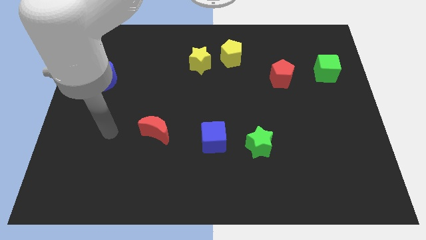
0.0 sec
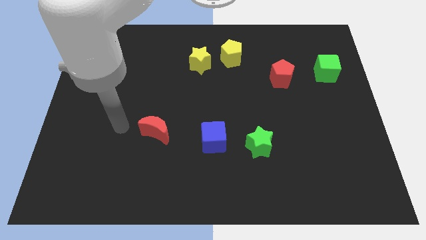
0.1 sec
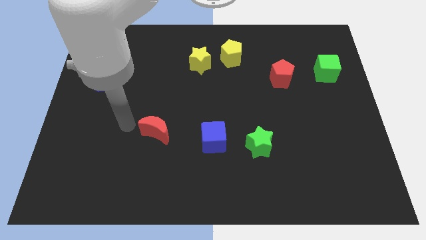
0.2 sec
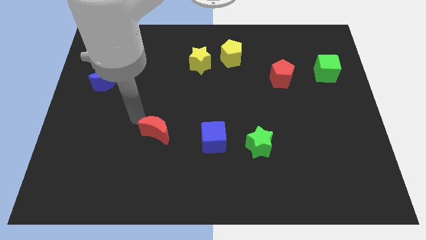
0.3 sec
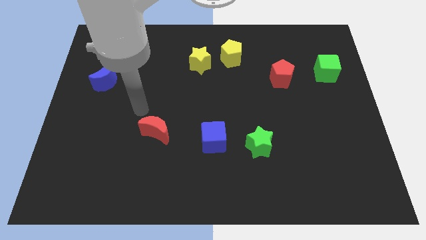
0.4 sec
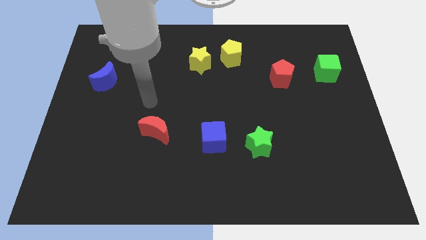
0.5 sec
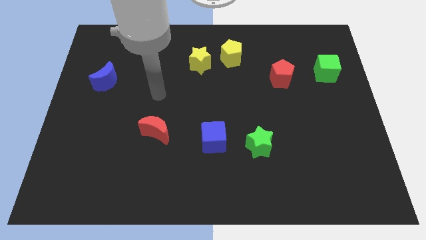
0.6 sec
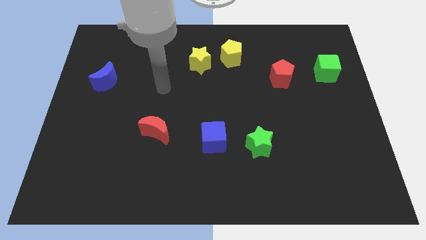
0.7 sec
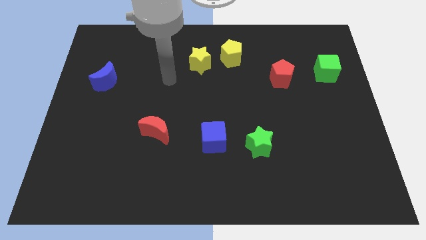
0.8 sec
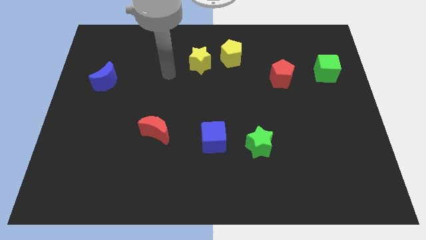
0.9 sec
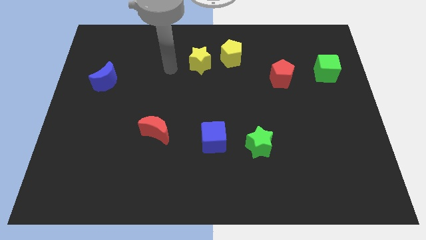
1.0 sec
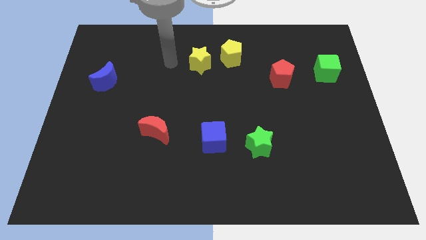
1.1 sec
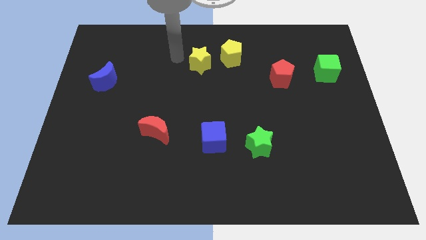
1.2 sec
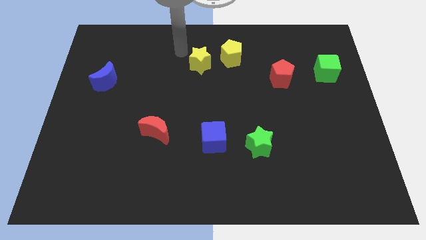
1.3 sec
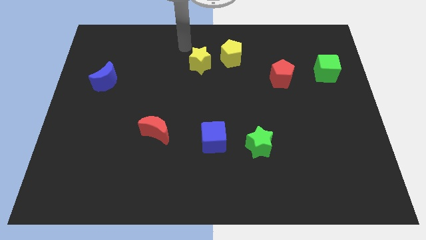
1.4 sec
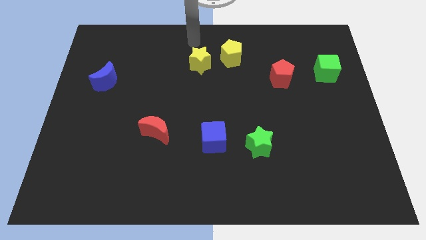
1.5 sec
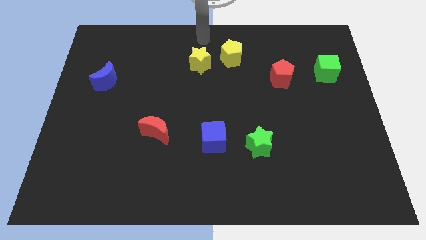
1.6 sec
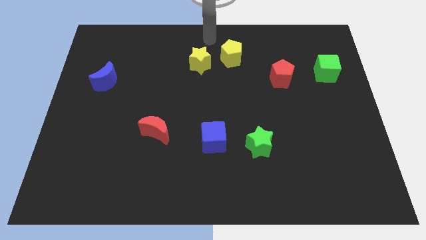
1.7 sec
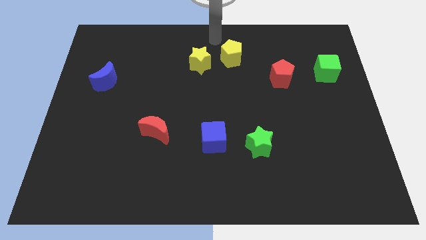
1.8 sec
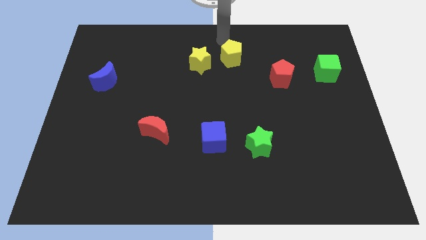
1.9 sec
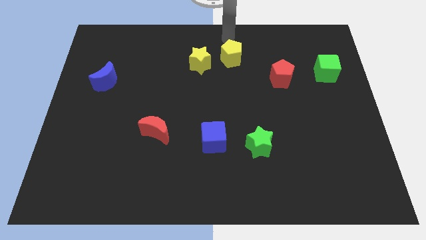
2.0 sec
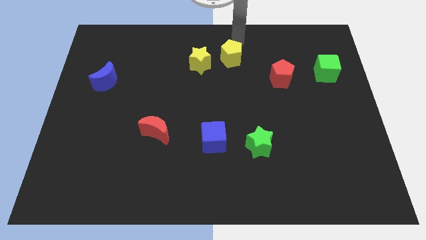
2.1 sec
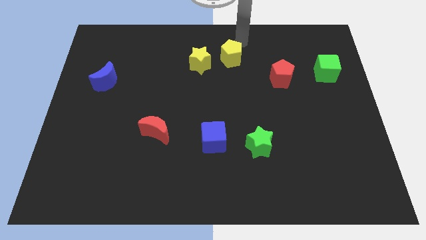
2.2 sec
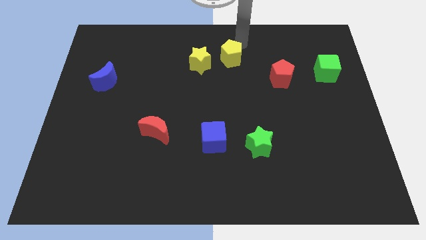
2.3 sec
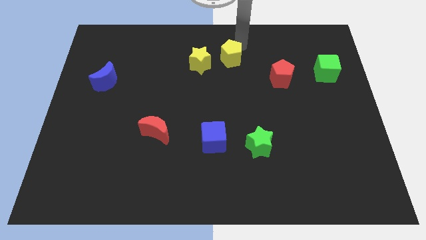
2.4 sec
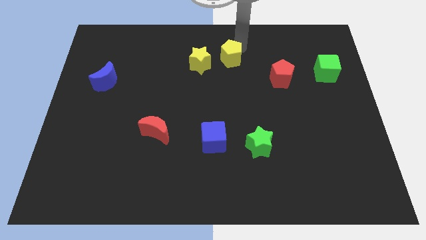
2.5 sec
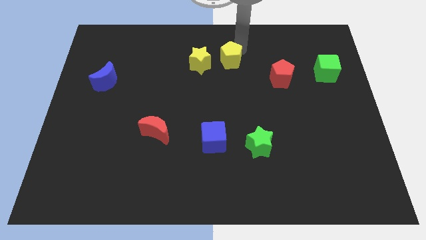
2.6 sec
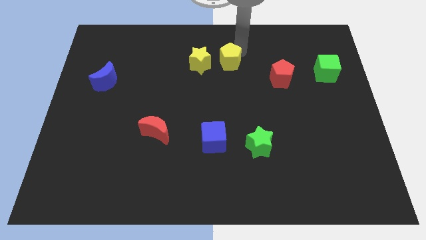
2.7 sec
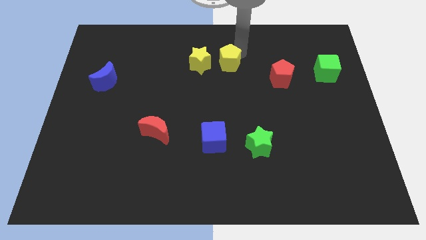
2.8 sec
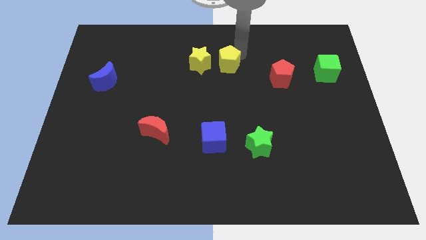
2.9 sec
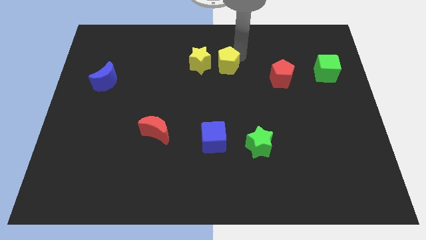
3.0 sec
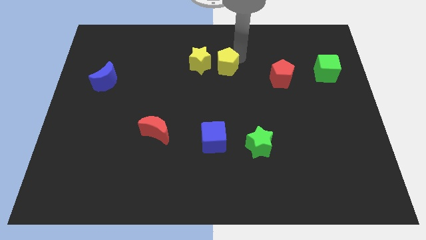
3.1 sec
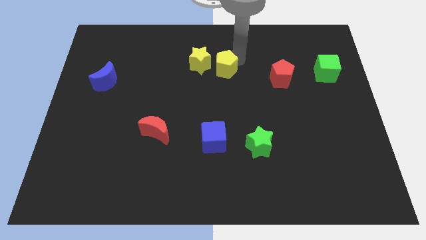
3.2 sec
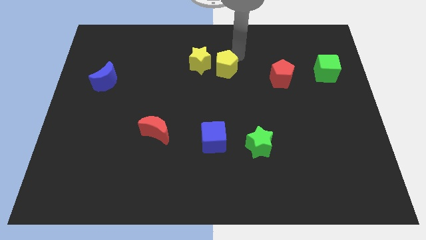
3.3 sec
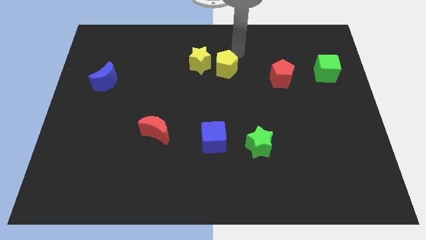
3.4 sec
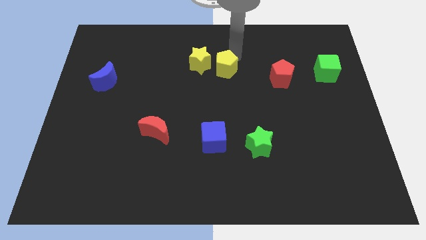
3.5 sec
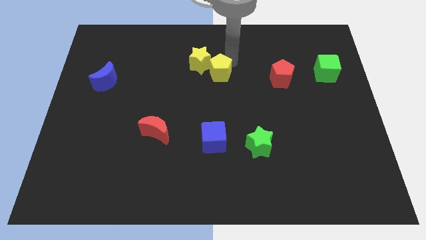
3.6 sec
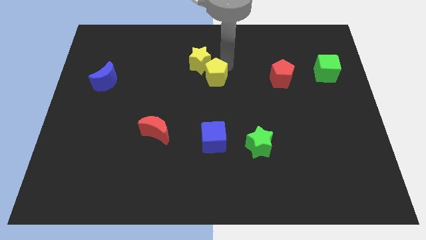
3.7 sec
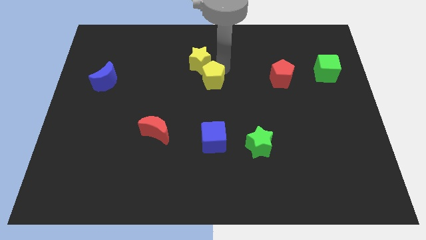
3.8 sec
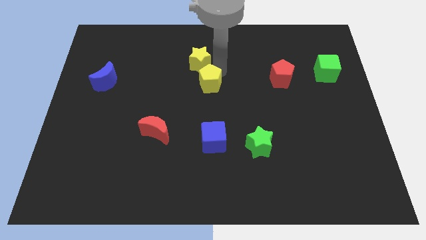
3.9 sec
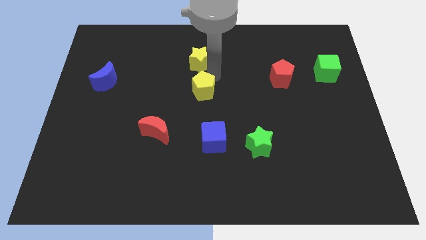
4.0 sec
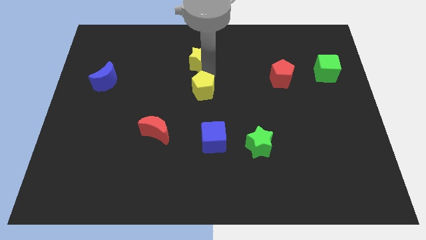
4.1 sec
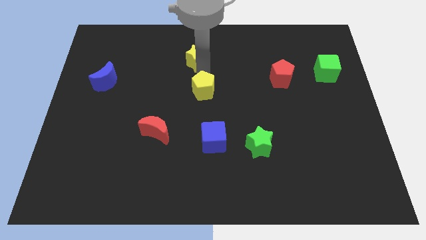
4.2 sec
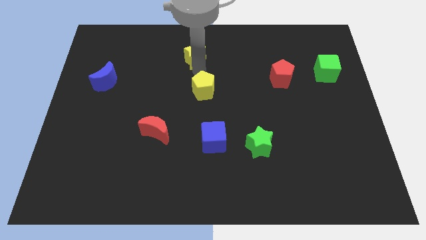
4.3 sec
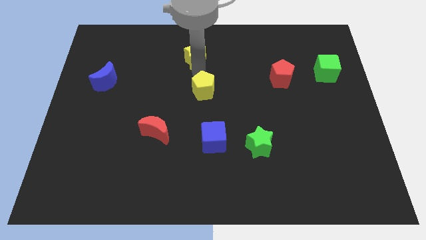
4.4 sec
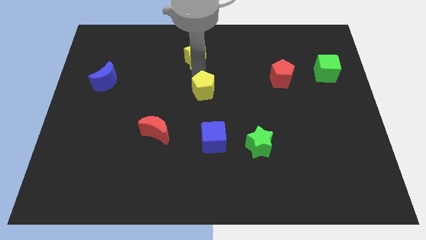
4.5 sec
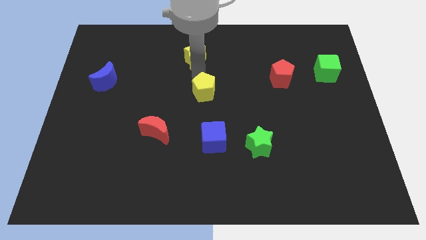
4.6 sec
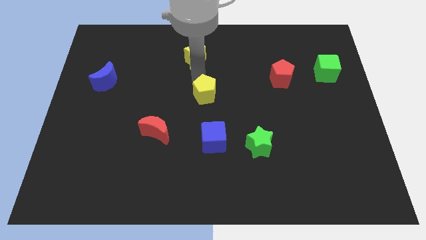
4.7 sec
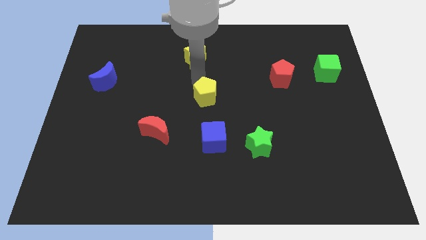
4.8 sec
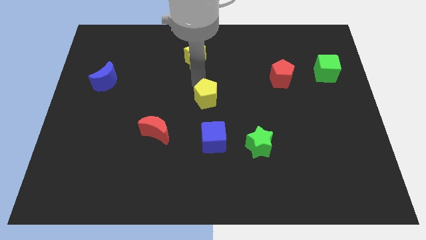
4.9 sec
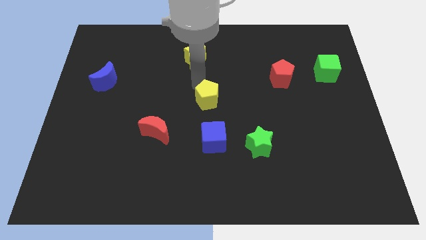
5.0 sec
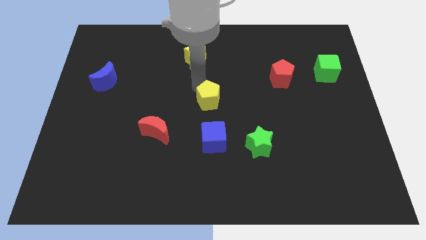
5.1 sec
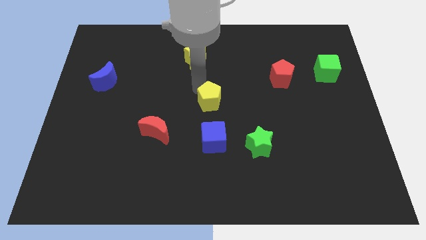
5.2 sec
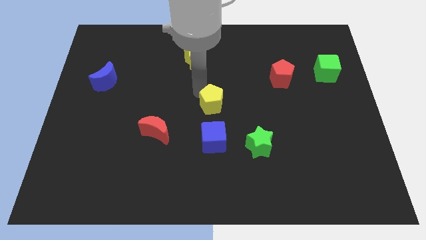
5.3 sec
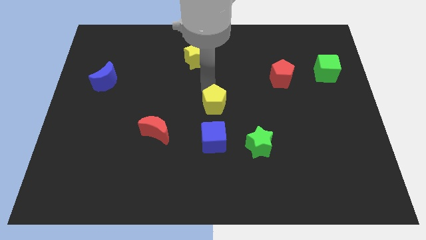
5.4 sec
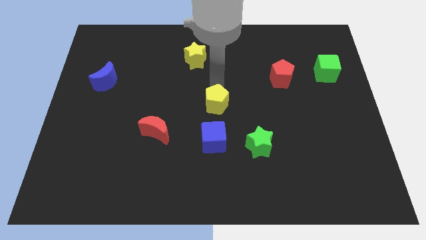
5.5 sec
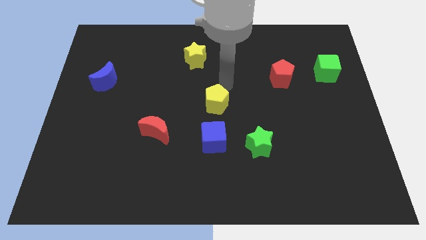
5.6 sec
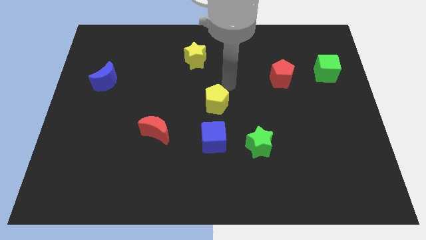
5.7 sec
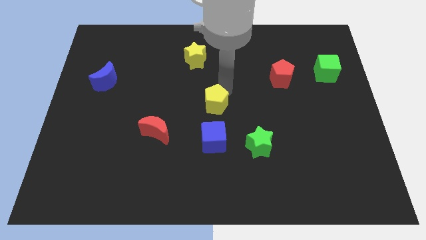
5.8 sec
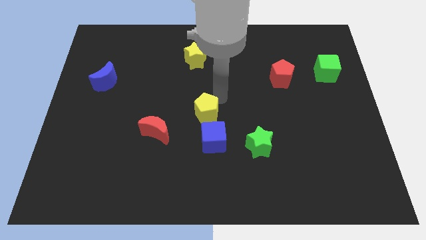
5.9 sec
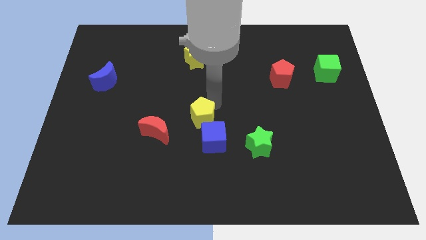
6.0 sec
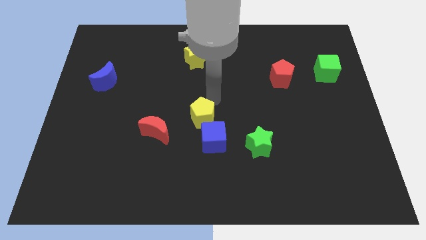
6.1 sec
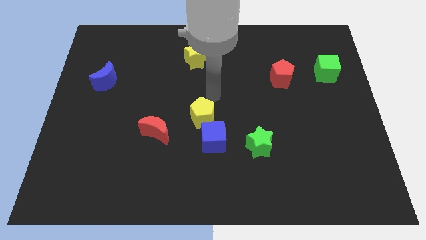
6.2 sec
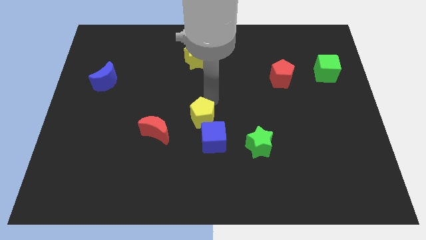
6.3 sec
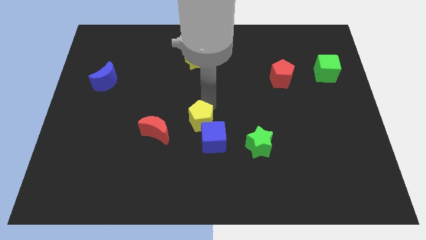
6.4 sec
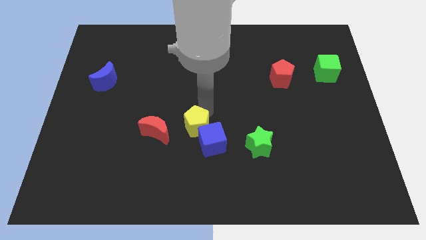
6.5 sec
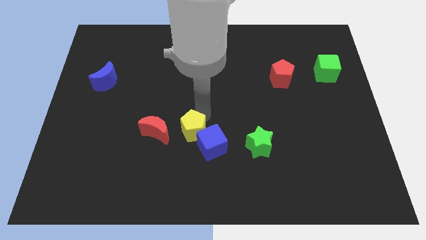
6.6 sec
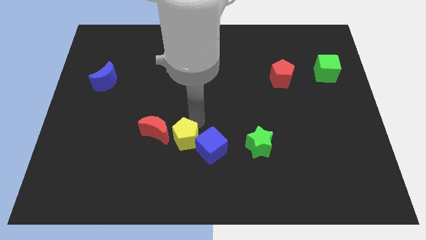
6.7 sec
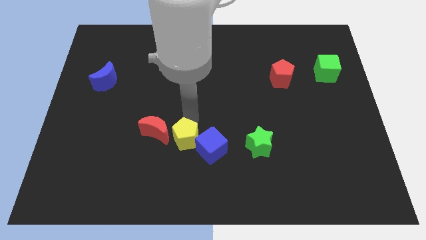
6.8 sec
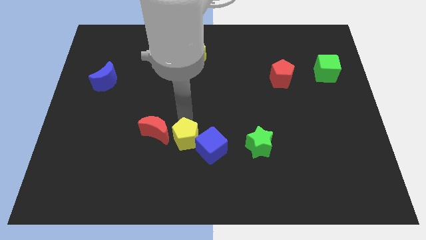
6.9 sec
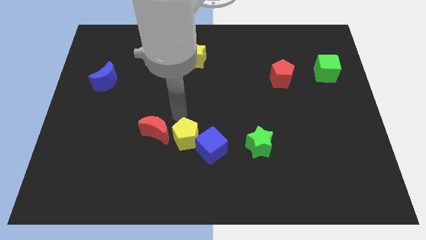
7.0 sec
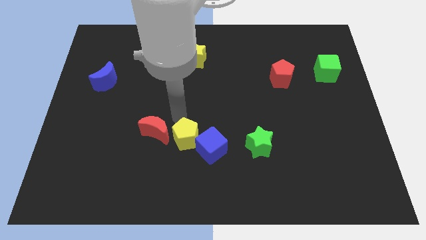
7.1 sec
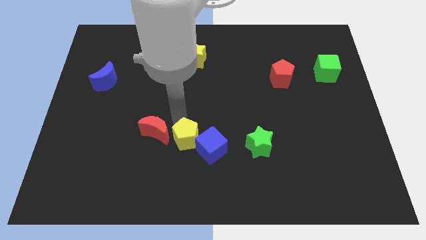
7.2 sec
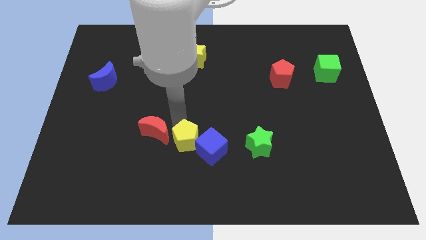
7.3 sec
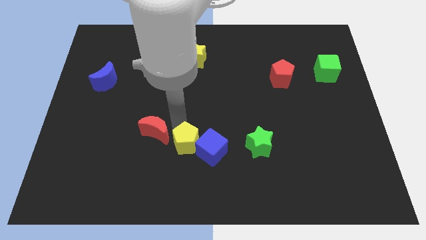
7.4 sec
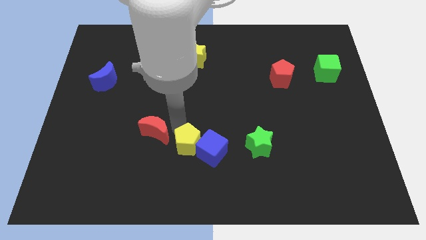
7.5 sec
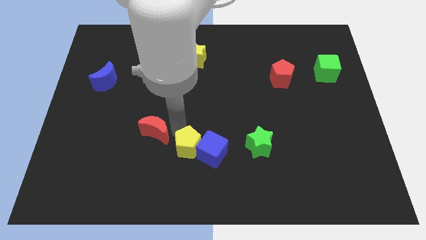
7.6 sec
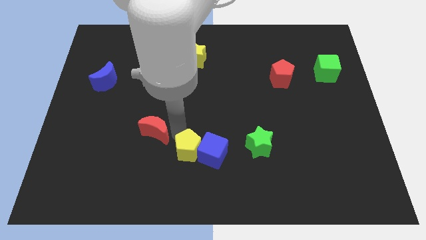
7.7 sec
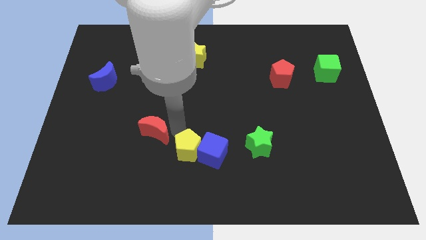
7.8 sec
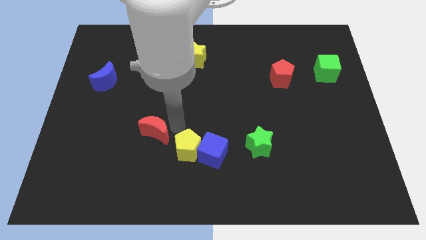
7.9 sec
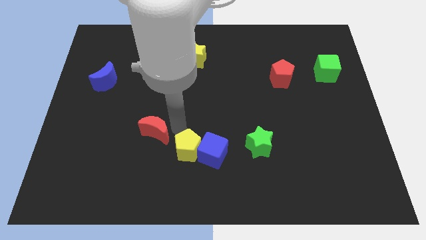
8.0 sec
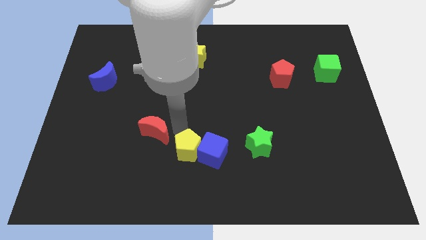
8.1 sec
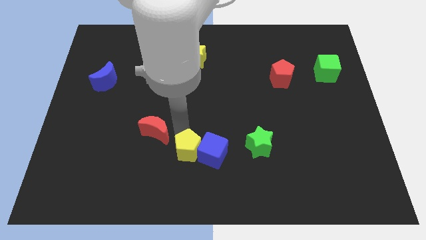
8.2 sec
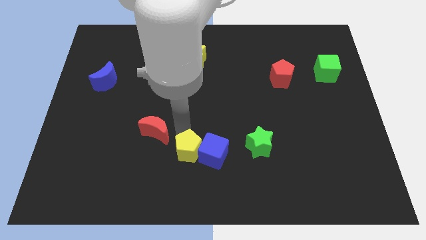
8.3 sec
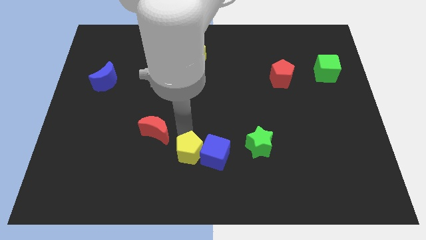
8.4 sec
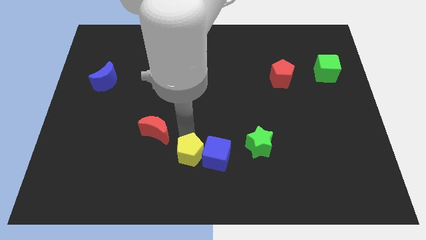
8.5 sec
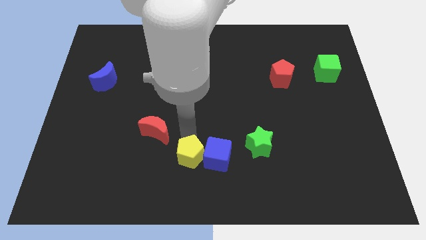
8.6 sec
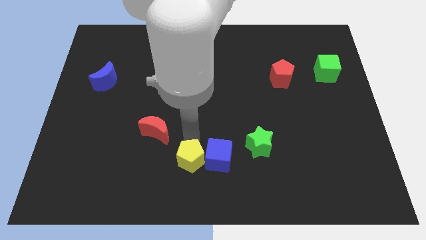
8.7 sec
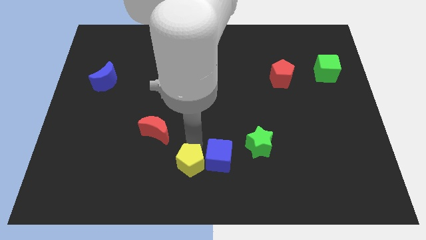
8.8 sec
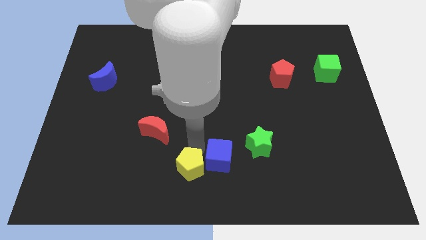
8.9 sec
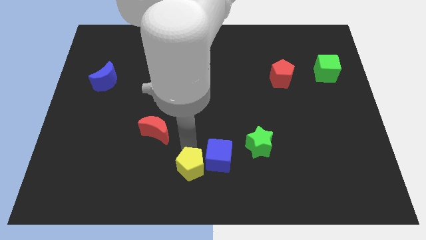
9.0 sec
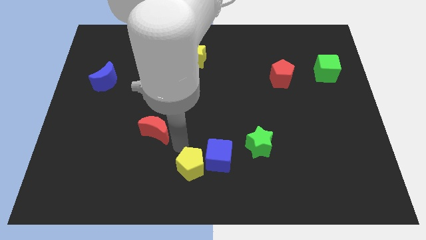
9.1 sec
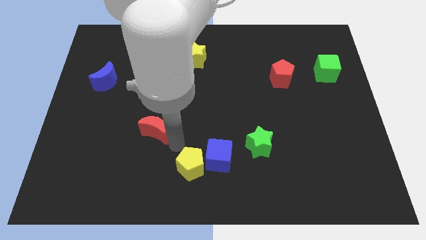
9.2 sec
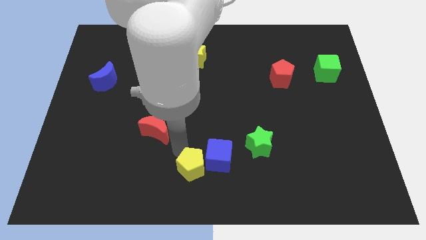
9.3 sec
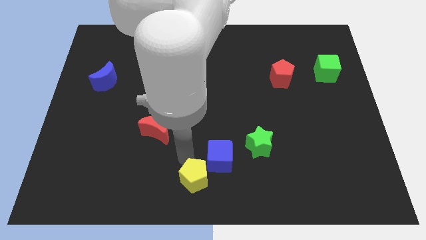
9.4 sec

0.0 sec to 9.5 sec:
slide the yellow pentagon to the bottom side of the blue cube
